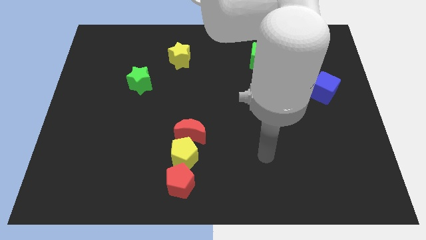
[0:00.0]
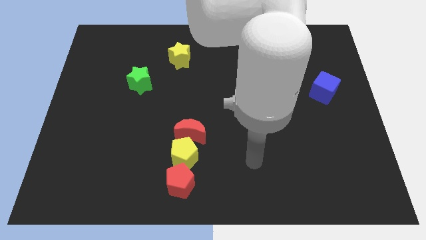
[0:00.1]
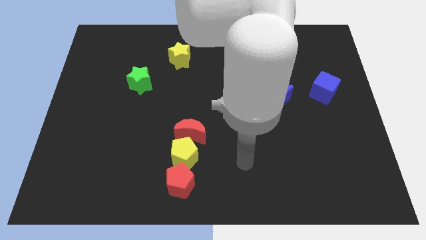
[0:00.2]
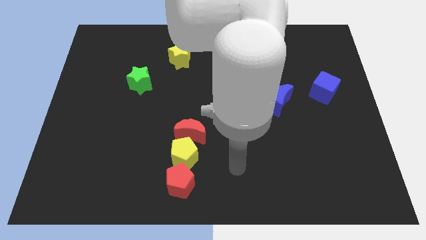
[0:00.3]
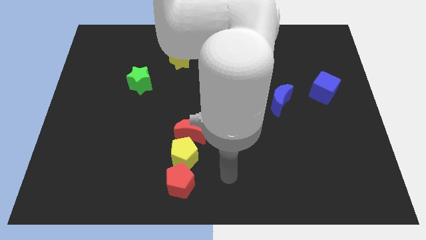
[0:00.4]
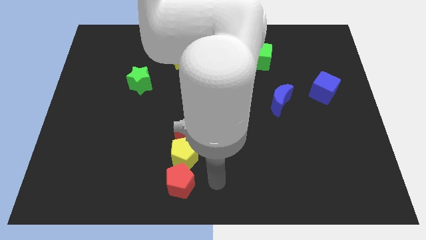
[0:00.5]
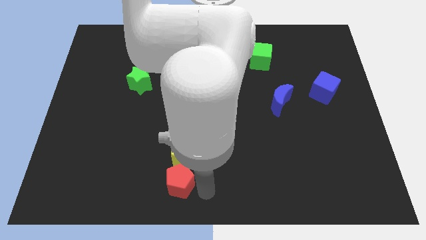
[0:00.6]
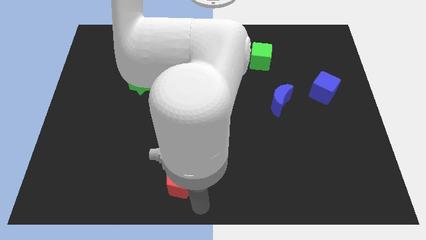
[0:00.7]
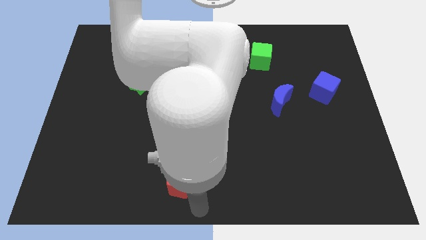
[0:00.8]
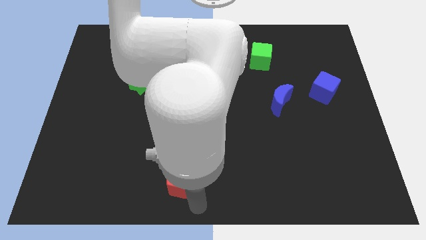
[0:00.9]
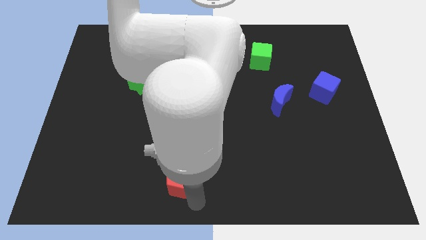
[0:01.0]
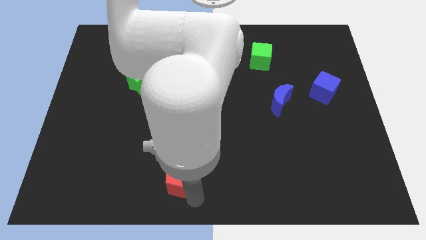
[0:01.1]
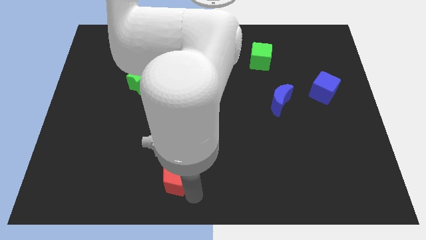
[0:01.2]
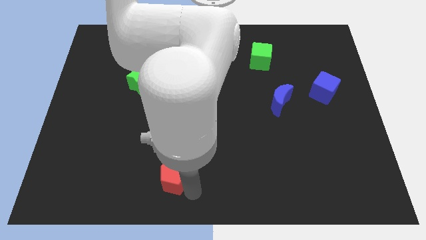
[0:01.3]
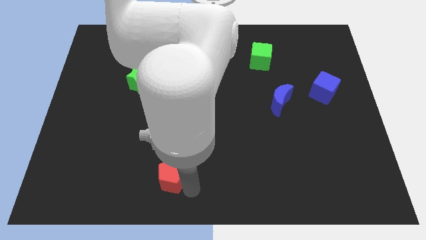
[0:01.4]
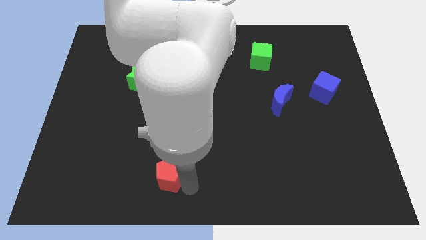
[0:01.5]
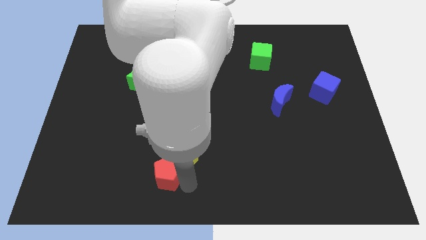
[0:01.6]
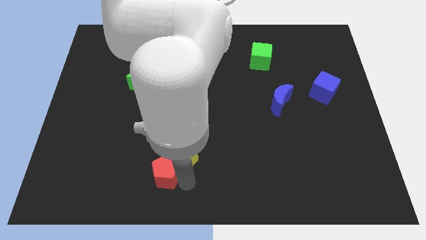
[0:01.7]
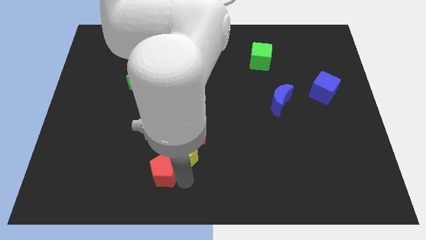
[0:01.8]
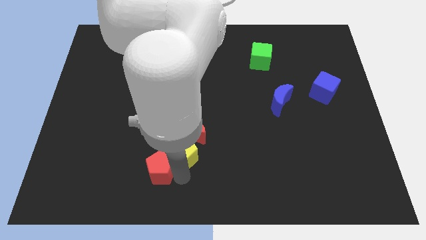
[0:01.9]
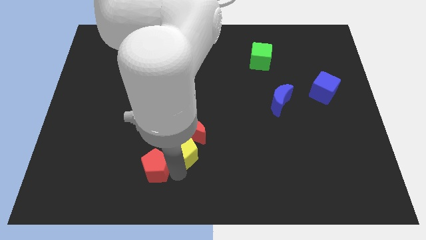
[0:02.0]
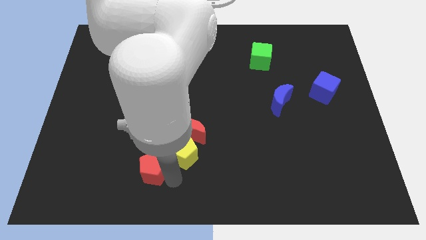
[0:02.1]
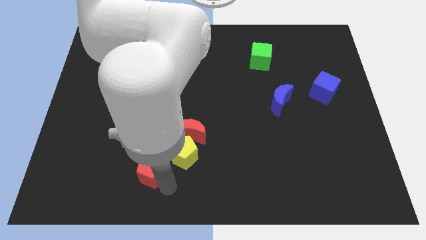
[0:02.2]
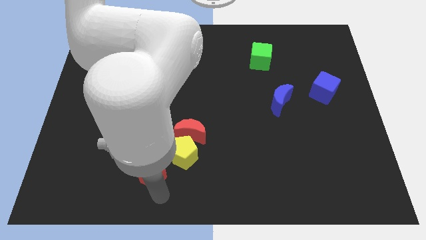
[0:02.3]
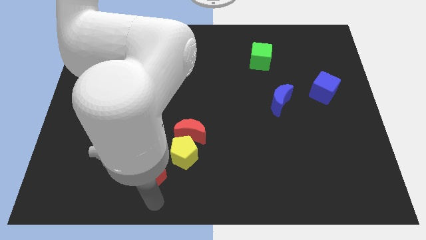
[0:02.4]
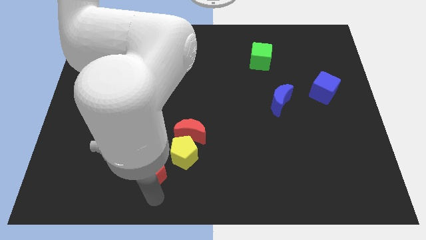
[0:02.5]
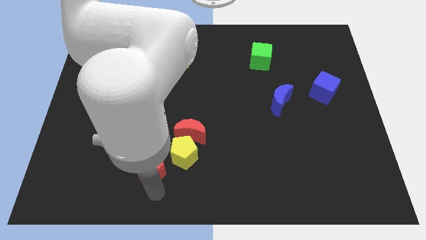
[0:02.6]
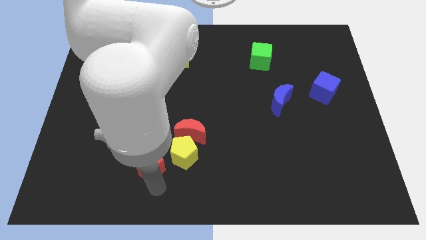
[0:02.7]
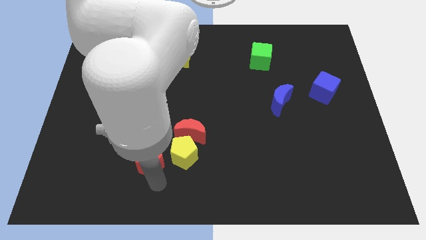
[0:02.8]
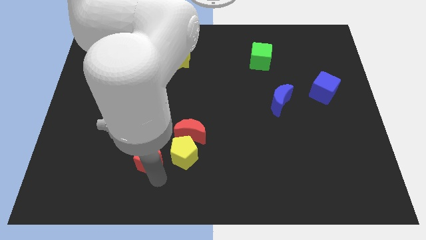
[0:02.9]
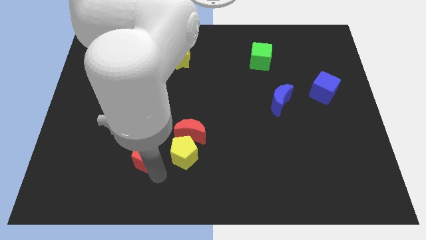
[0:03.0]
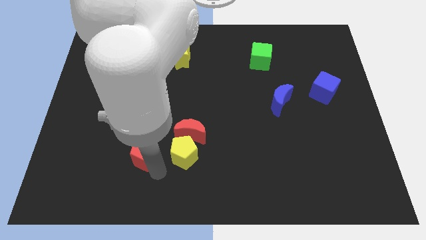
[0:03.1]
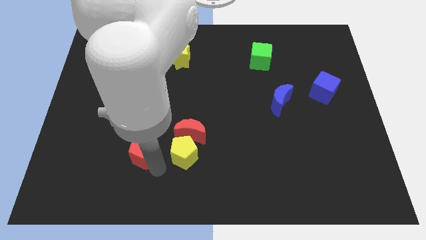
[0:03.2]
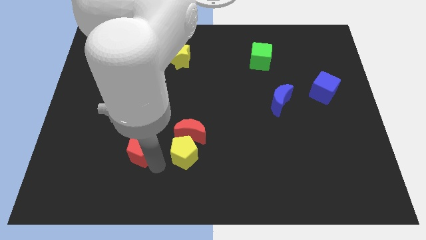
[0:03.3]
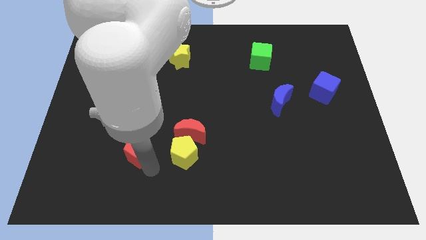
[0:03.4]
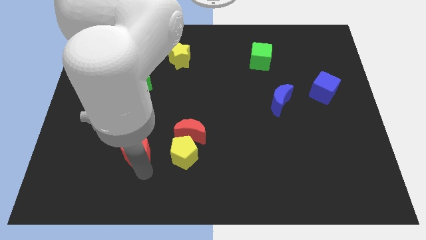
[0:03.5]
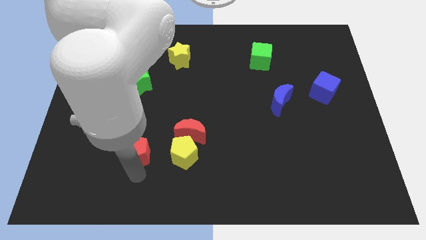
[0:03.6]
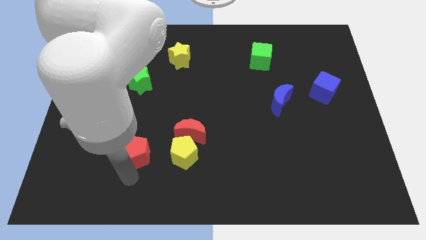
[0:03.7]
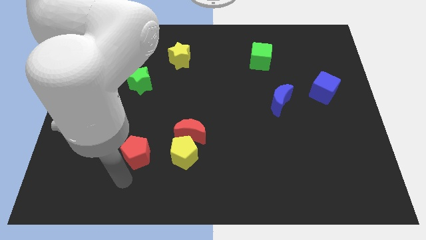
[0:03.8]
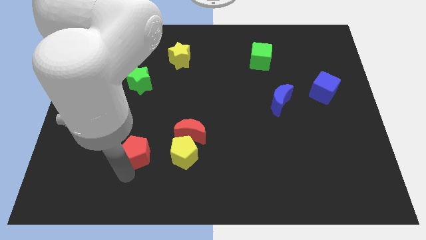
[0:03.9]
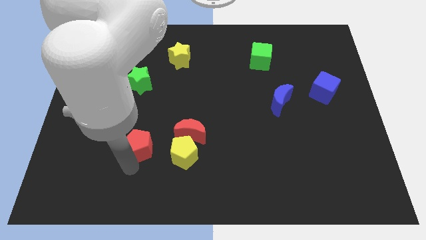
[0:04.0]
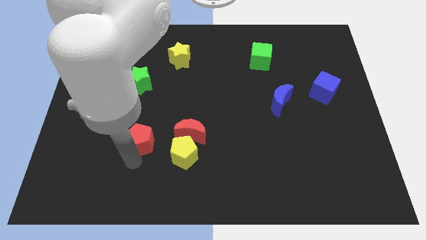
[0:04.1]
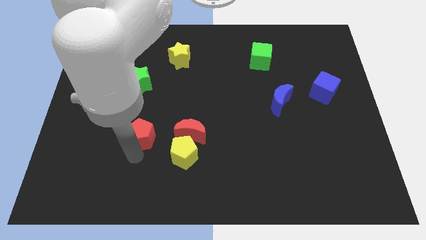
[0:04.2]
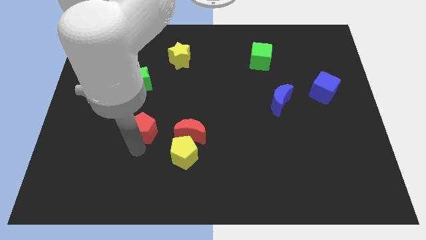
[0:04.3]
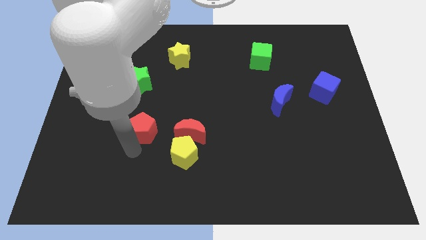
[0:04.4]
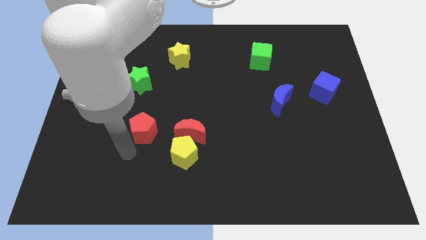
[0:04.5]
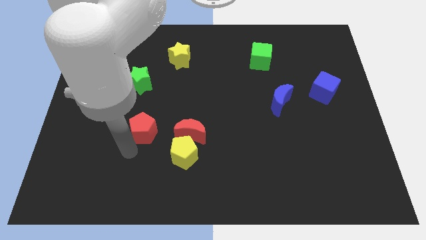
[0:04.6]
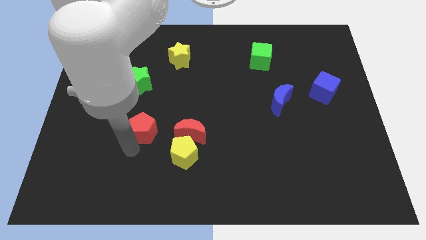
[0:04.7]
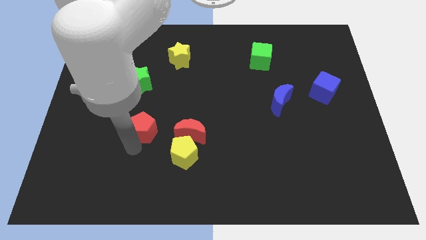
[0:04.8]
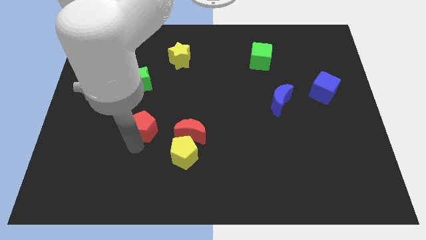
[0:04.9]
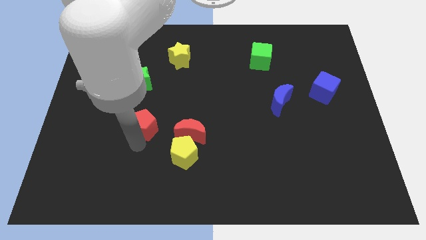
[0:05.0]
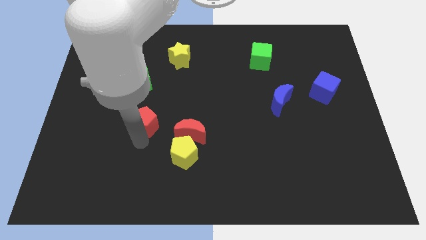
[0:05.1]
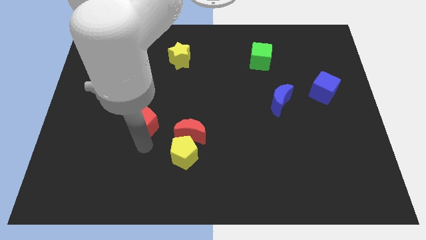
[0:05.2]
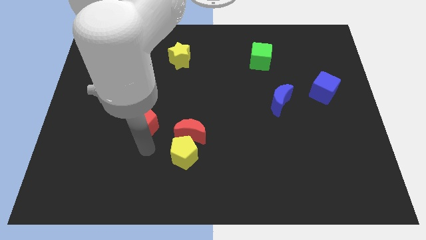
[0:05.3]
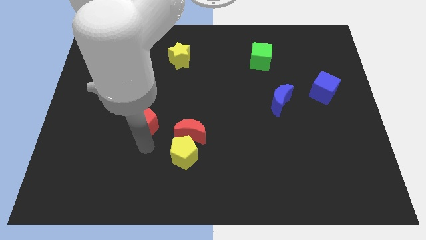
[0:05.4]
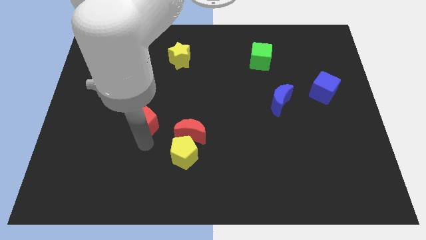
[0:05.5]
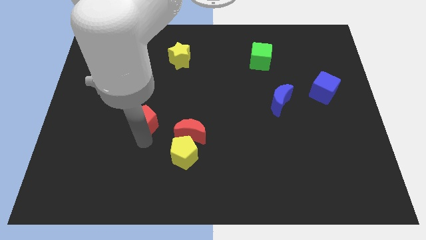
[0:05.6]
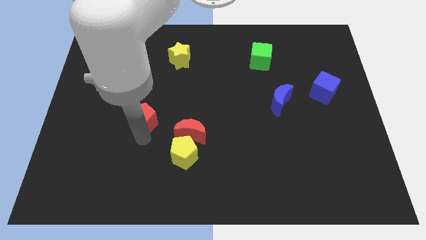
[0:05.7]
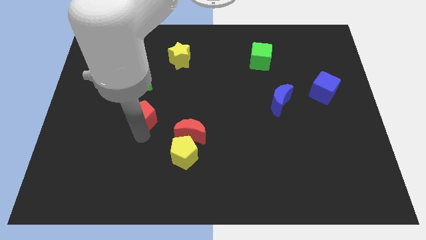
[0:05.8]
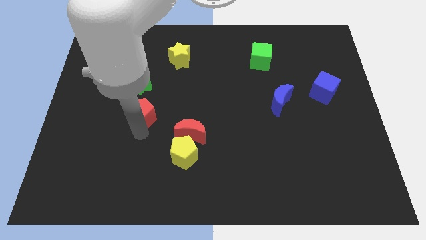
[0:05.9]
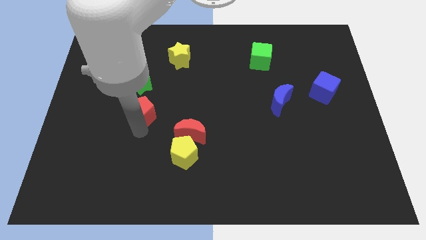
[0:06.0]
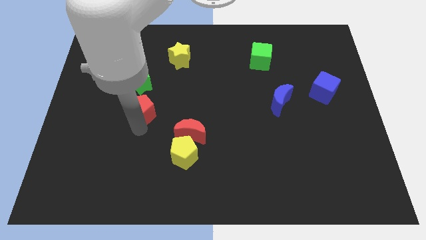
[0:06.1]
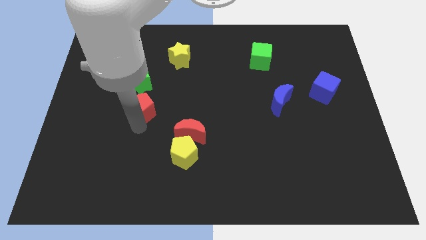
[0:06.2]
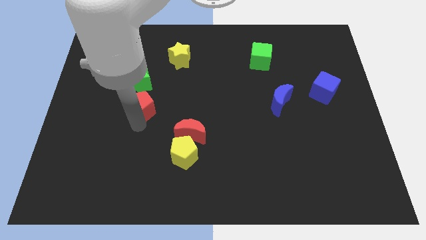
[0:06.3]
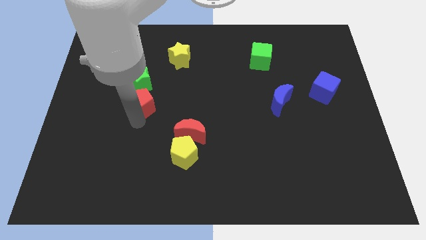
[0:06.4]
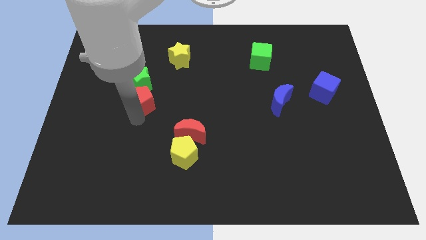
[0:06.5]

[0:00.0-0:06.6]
push the red pentagon next to the green star

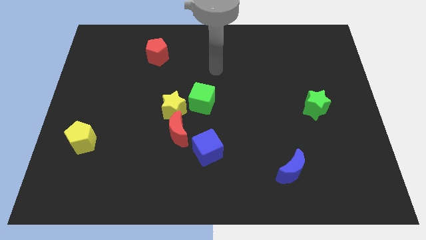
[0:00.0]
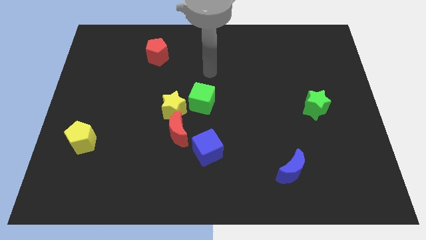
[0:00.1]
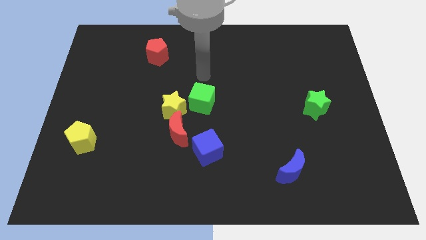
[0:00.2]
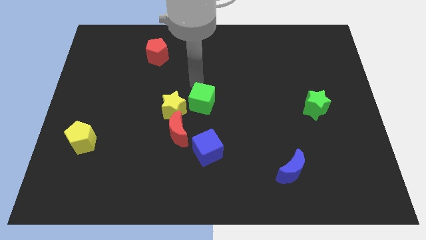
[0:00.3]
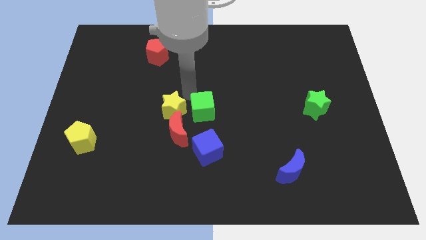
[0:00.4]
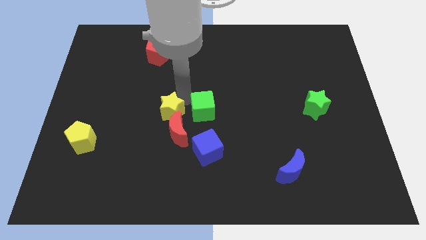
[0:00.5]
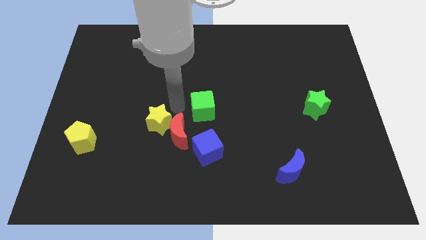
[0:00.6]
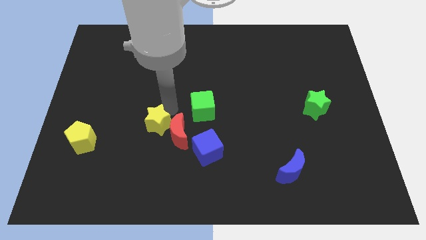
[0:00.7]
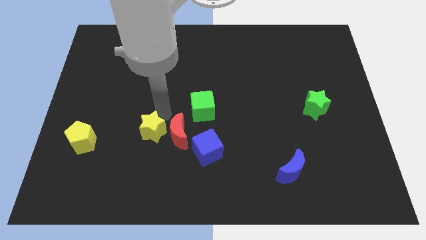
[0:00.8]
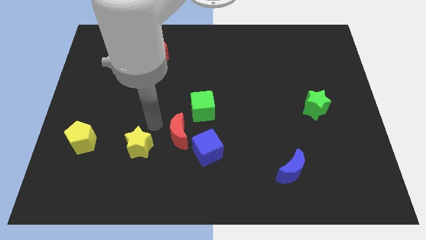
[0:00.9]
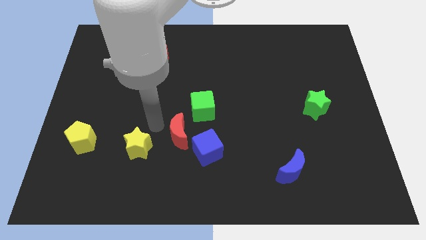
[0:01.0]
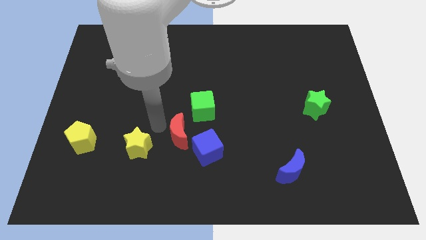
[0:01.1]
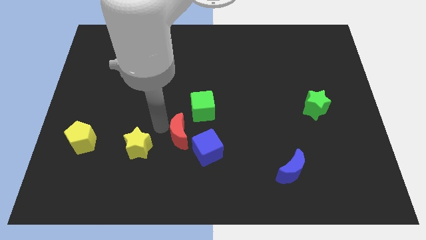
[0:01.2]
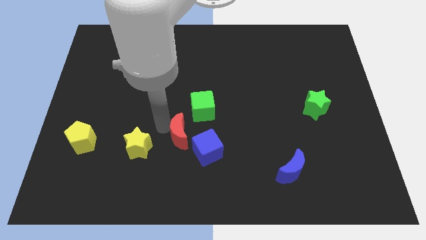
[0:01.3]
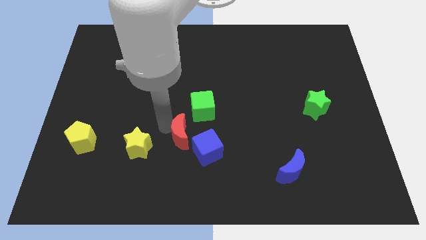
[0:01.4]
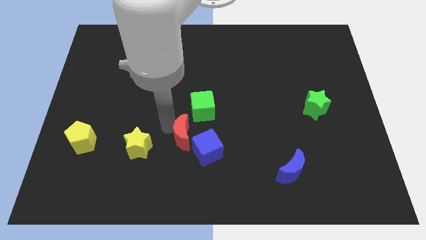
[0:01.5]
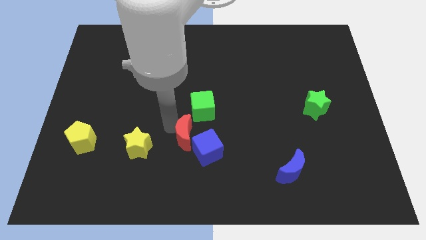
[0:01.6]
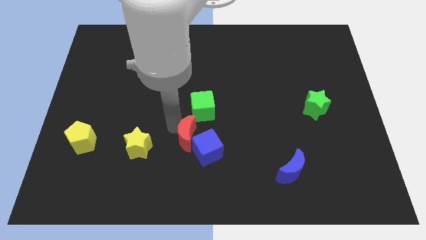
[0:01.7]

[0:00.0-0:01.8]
push the red moon to the blue cube

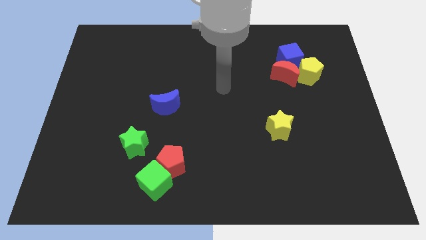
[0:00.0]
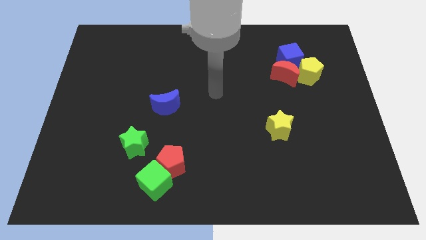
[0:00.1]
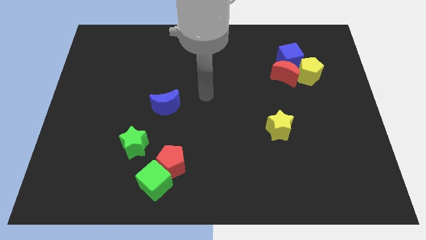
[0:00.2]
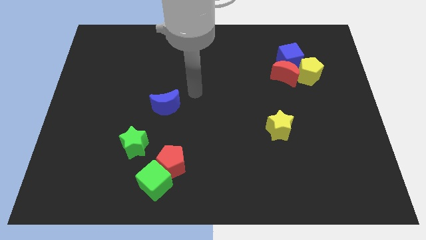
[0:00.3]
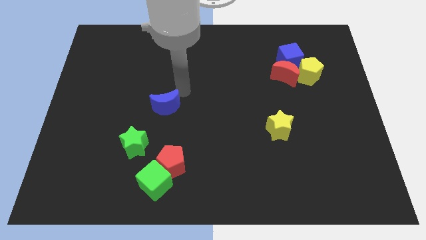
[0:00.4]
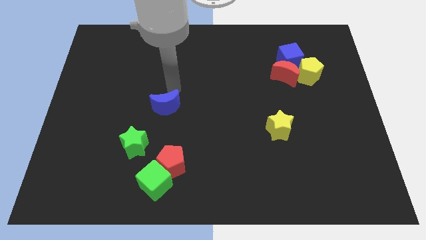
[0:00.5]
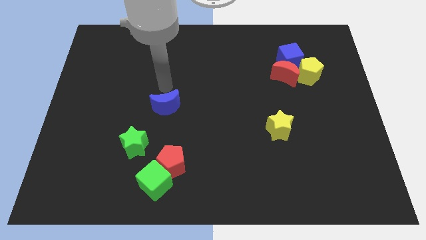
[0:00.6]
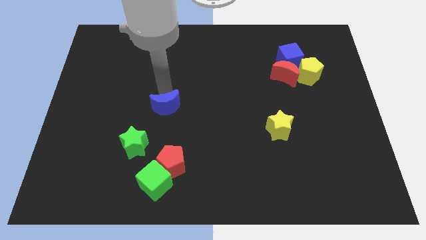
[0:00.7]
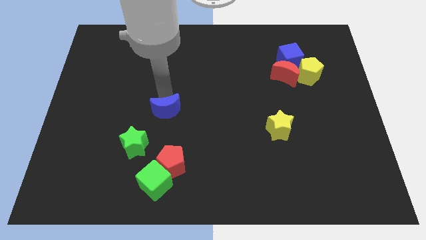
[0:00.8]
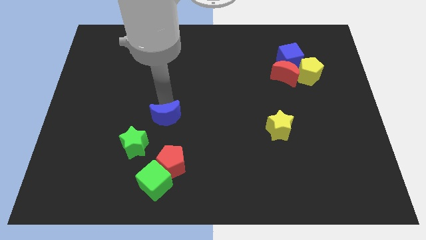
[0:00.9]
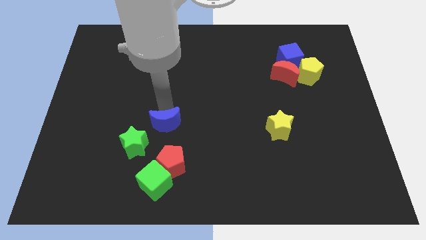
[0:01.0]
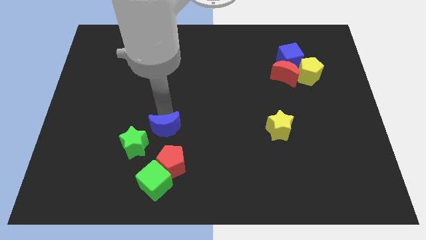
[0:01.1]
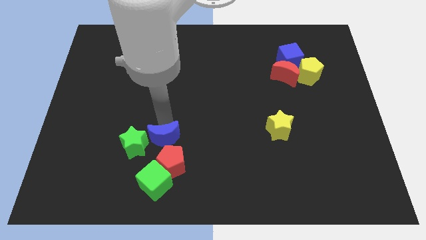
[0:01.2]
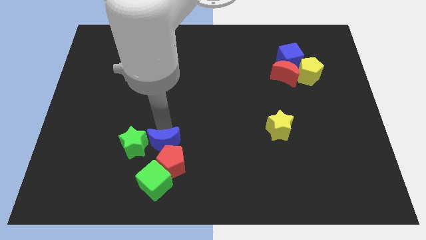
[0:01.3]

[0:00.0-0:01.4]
push the blue moon to the red pentagon
